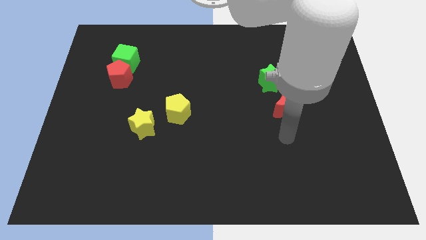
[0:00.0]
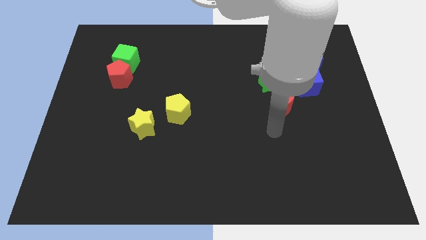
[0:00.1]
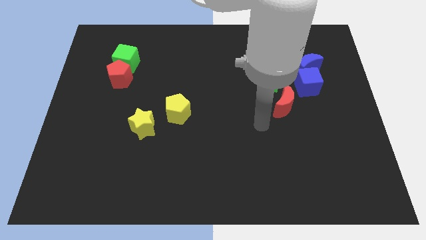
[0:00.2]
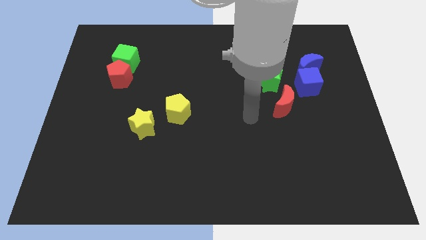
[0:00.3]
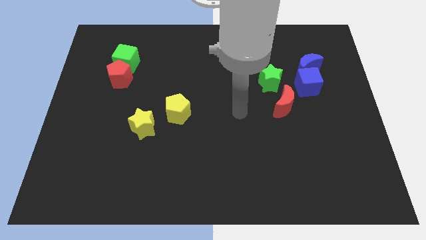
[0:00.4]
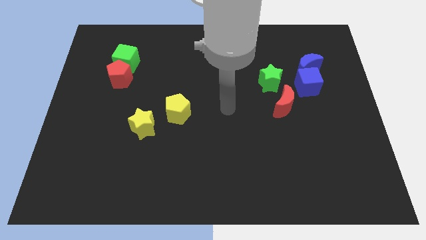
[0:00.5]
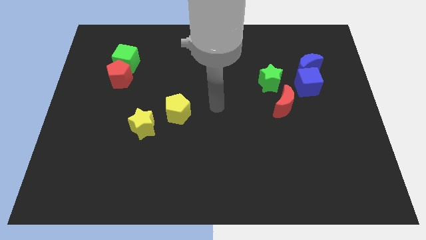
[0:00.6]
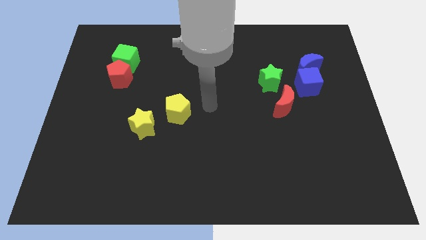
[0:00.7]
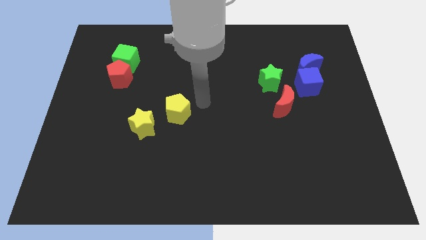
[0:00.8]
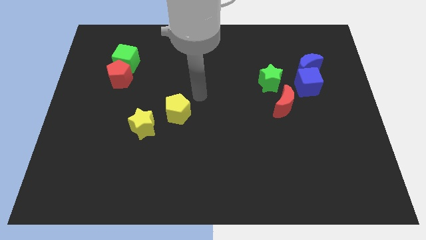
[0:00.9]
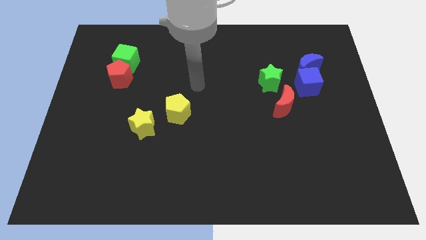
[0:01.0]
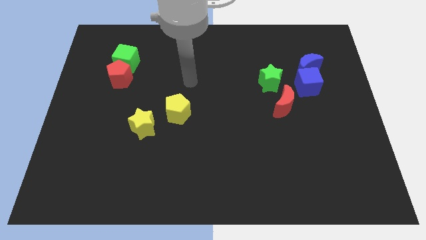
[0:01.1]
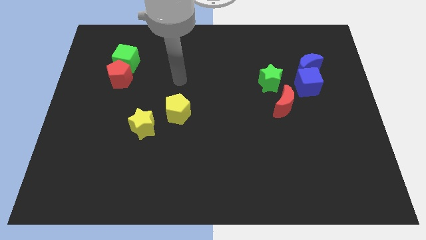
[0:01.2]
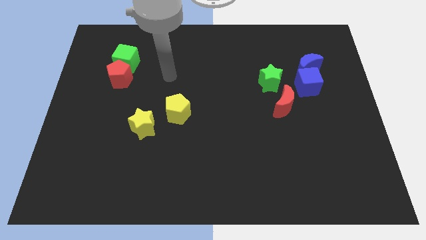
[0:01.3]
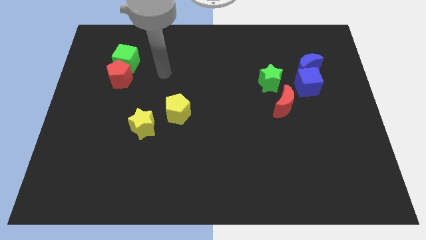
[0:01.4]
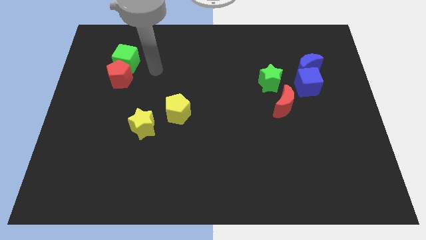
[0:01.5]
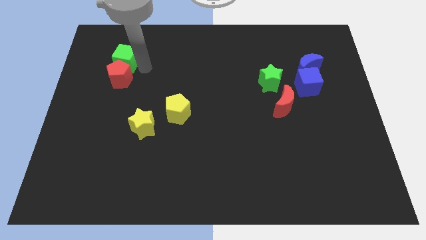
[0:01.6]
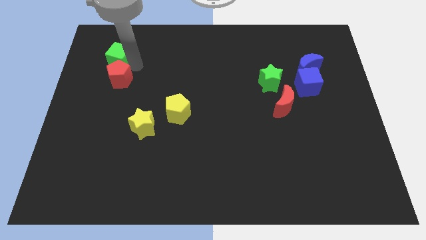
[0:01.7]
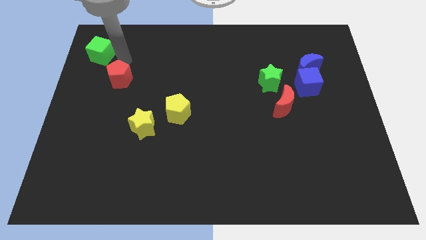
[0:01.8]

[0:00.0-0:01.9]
separate the red pentagon from the green cube

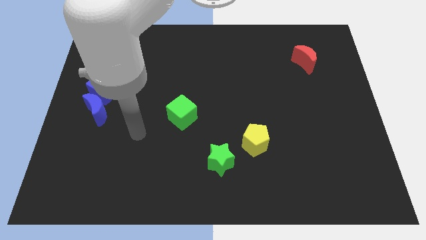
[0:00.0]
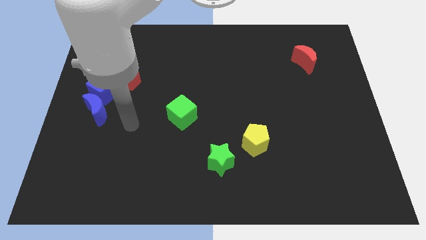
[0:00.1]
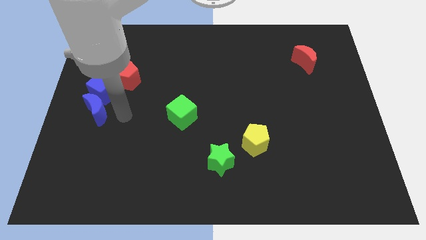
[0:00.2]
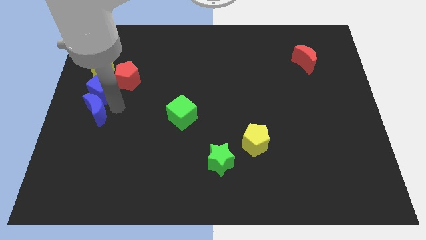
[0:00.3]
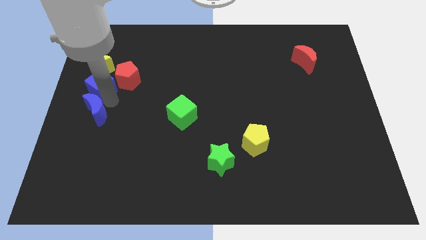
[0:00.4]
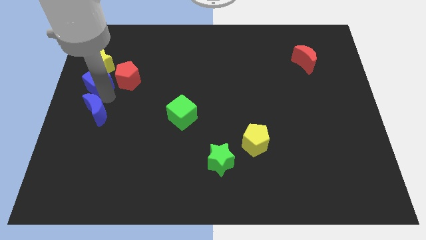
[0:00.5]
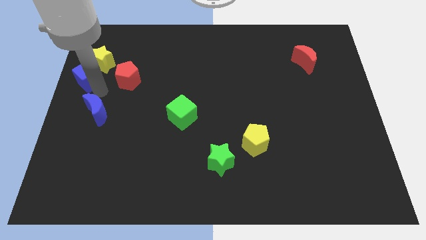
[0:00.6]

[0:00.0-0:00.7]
move the blue moon away from the blue cube

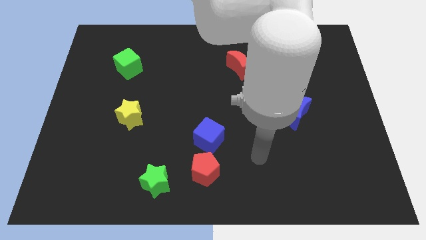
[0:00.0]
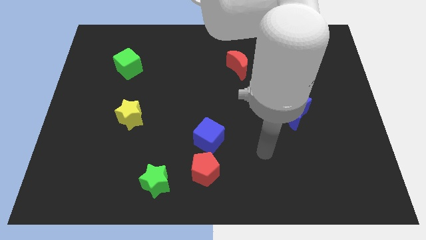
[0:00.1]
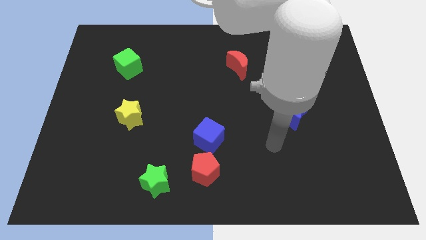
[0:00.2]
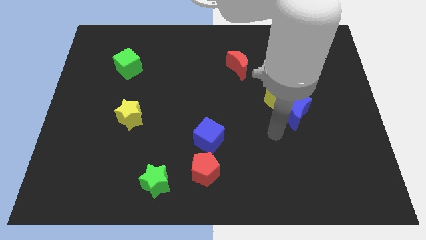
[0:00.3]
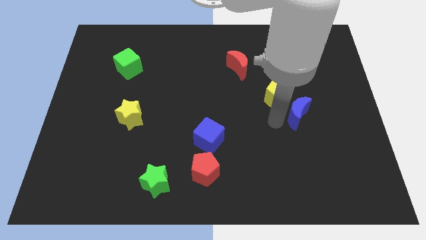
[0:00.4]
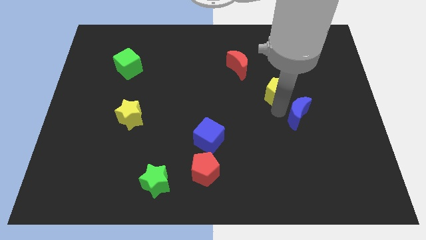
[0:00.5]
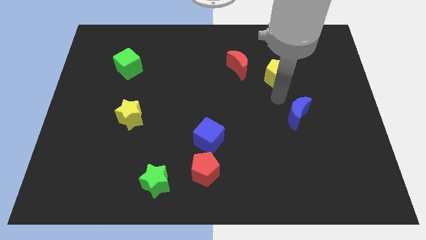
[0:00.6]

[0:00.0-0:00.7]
move the blue moon away from the yellow pentagon

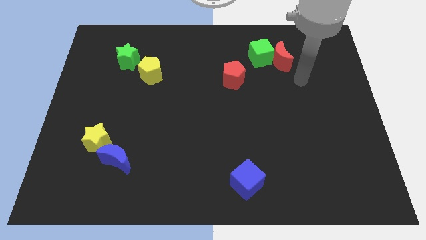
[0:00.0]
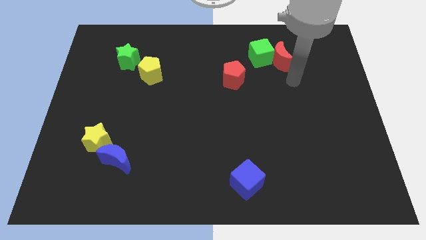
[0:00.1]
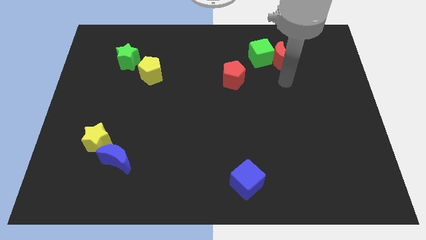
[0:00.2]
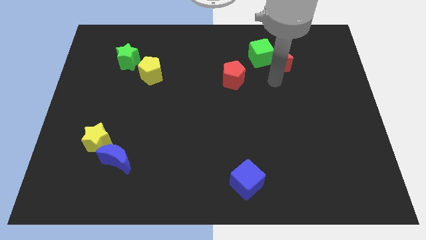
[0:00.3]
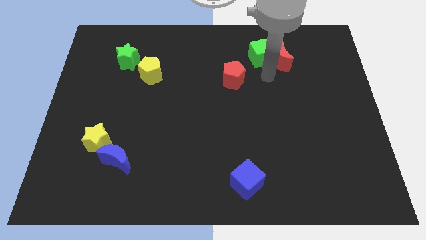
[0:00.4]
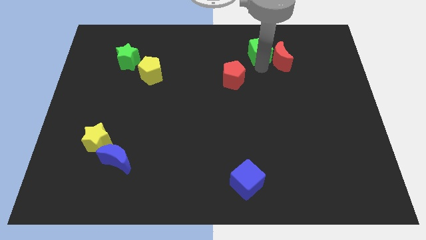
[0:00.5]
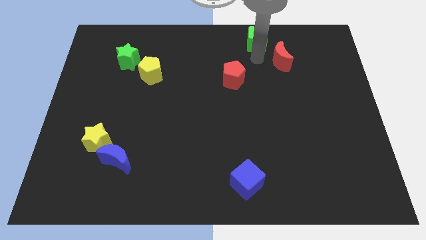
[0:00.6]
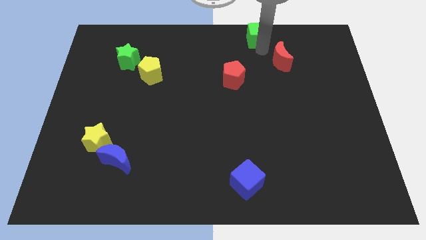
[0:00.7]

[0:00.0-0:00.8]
move the red moon away from the green cube

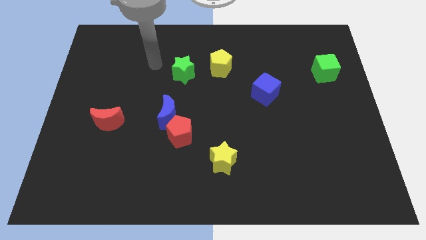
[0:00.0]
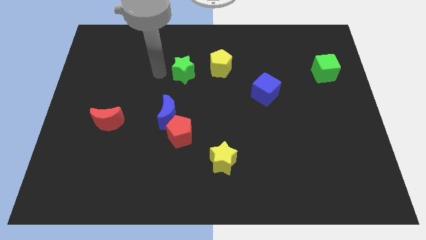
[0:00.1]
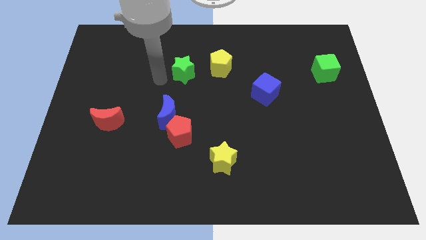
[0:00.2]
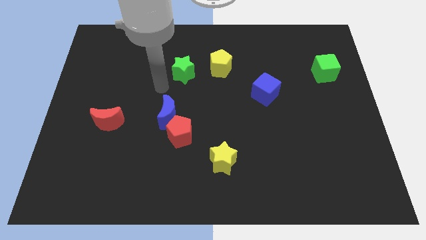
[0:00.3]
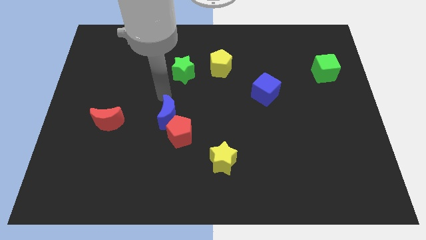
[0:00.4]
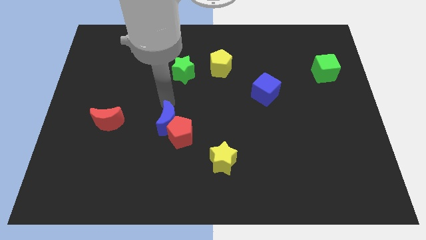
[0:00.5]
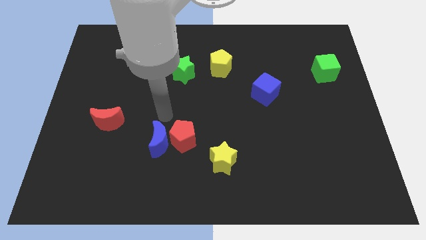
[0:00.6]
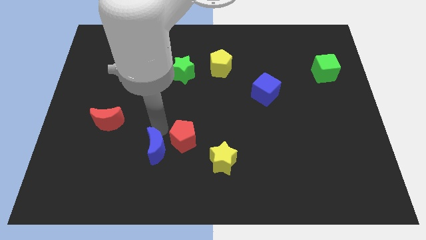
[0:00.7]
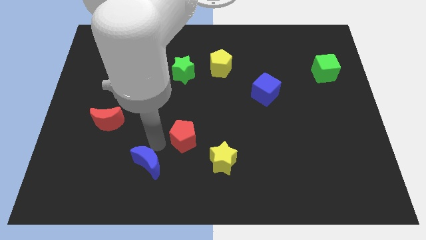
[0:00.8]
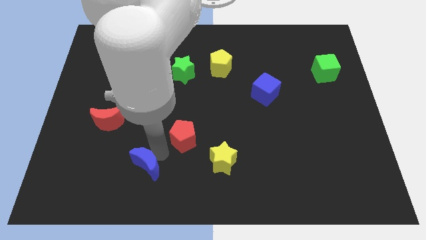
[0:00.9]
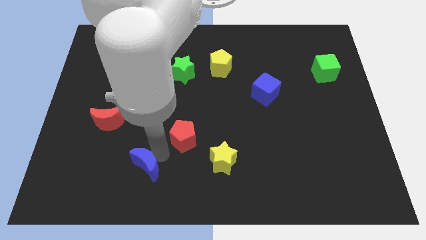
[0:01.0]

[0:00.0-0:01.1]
move the red pentagon away from the blue moon

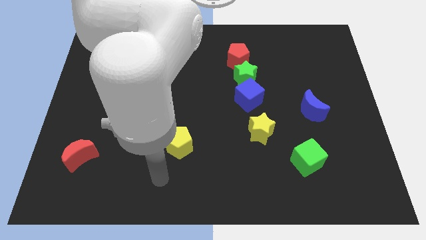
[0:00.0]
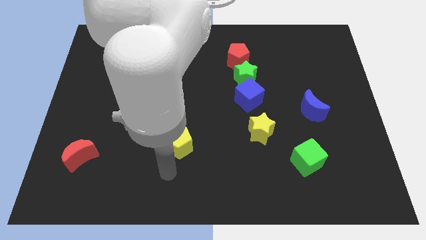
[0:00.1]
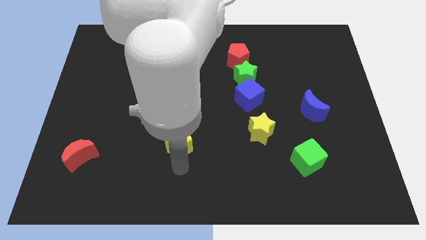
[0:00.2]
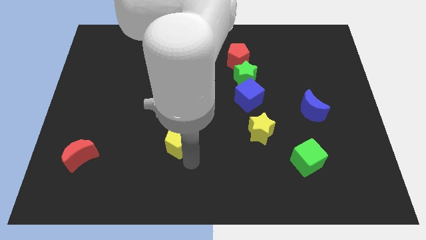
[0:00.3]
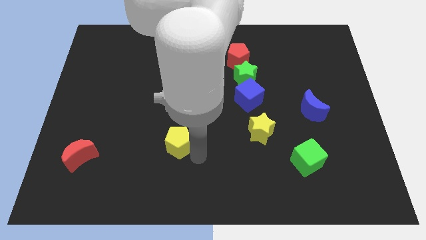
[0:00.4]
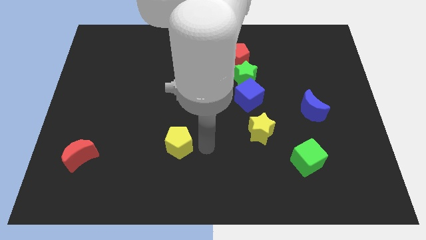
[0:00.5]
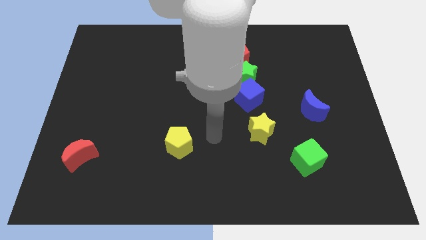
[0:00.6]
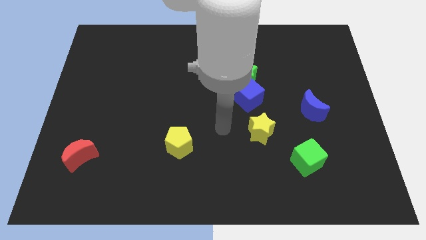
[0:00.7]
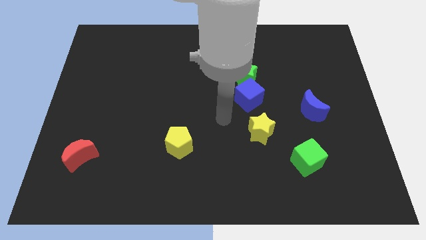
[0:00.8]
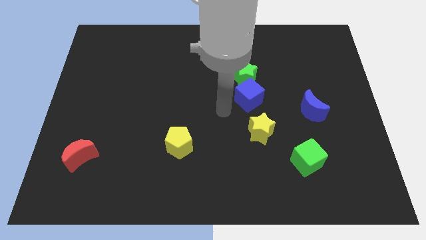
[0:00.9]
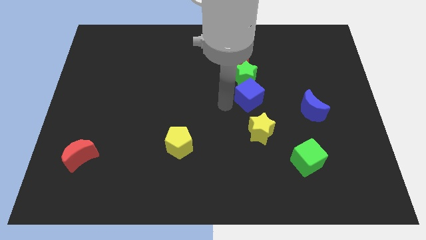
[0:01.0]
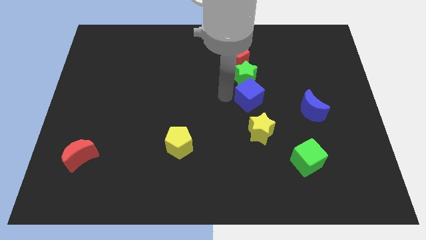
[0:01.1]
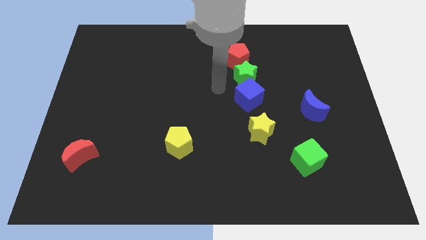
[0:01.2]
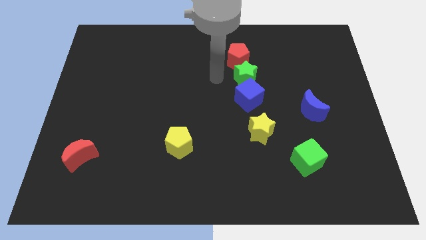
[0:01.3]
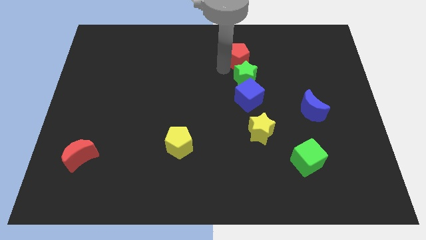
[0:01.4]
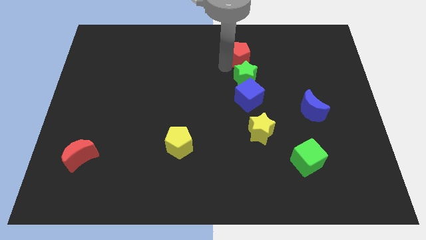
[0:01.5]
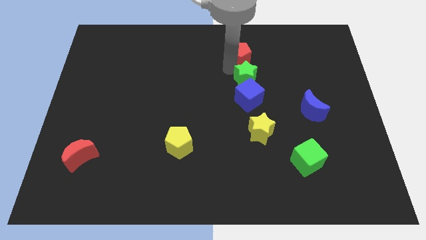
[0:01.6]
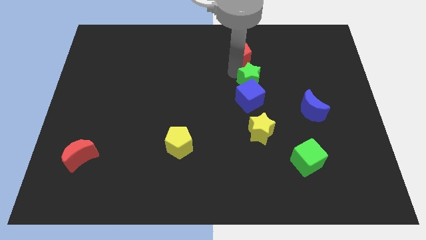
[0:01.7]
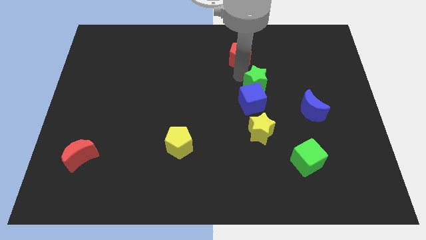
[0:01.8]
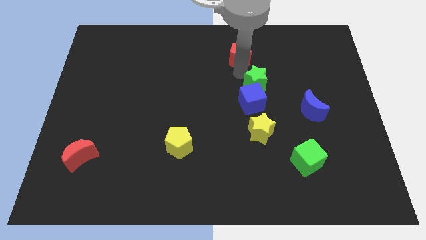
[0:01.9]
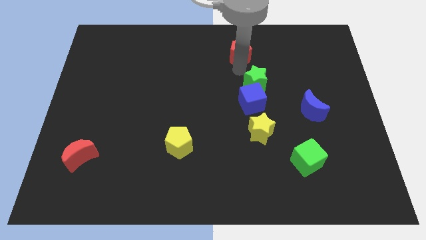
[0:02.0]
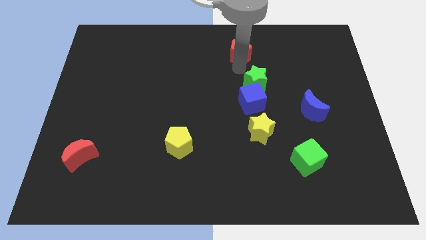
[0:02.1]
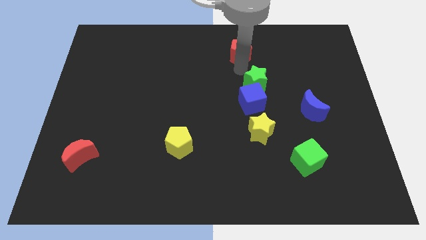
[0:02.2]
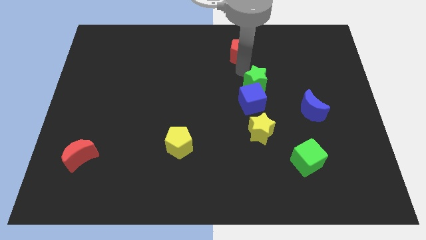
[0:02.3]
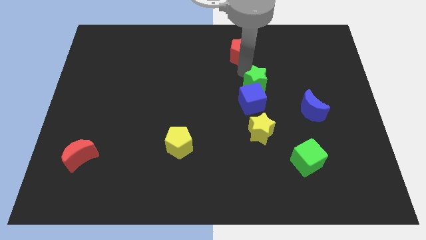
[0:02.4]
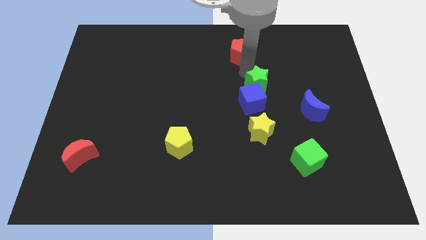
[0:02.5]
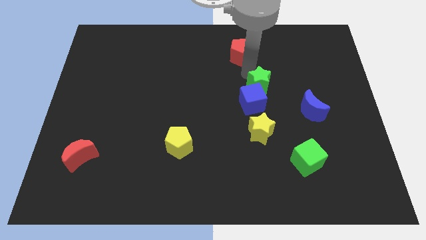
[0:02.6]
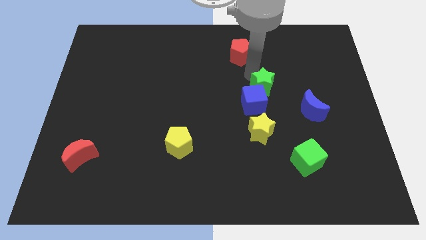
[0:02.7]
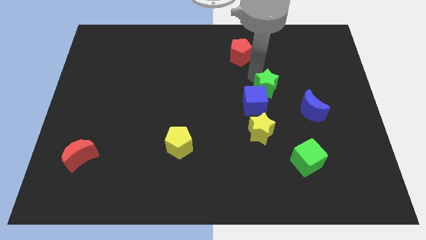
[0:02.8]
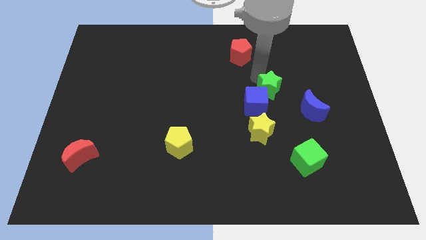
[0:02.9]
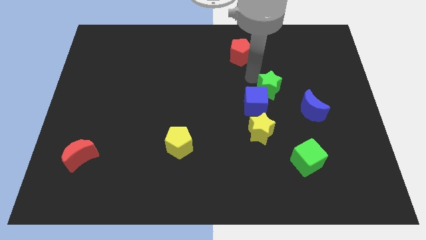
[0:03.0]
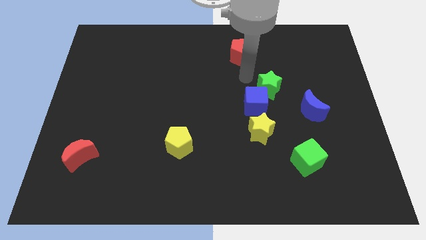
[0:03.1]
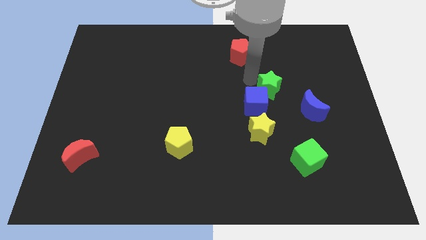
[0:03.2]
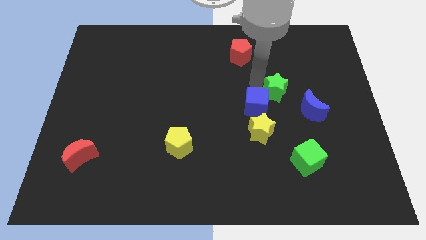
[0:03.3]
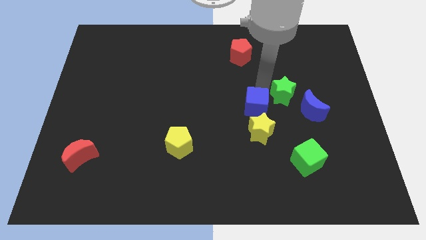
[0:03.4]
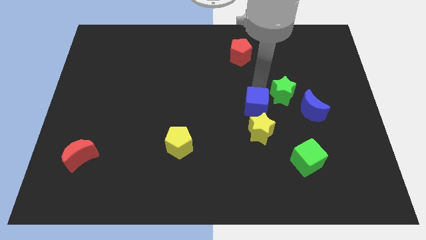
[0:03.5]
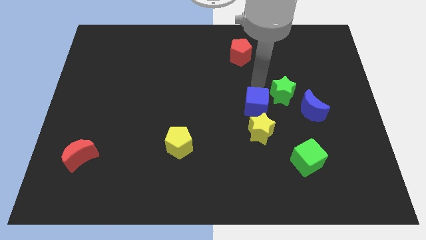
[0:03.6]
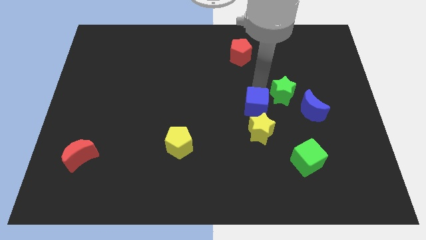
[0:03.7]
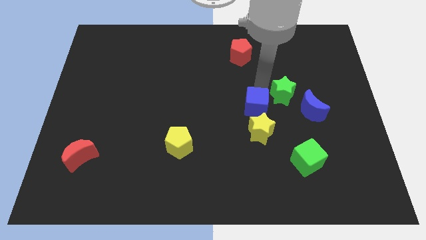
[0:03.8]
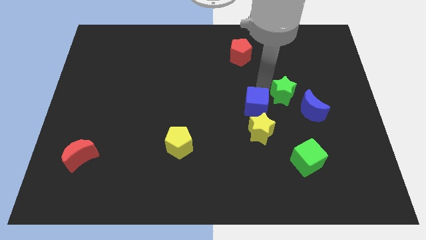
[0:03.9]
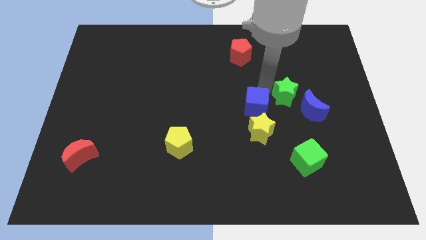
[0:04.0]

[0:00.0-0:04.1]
move the green star away from the blue cube and red pentagon
